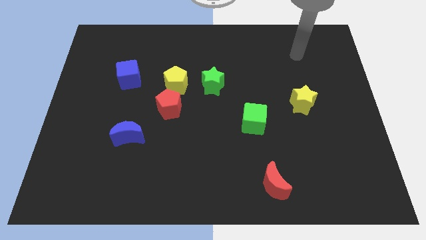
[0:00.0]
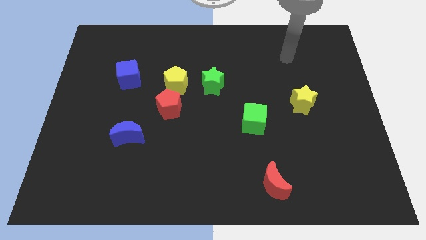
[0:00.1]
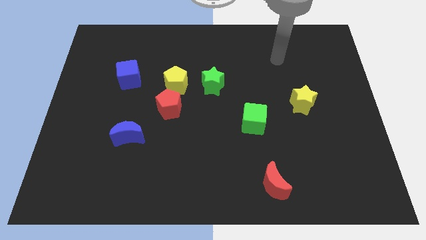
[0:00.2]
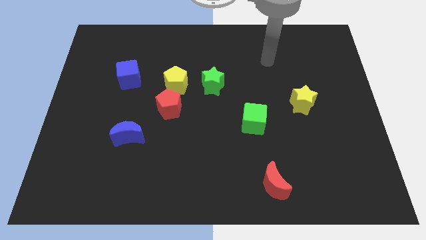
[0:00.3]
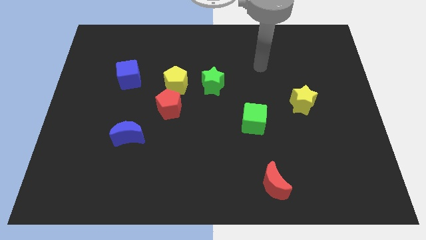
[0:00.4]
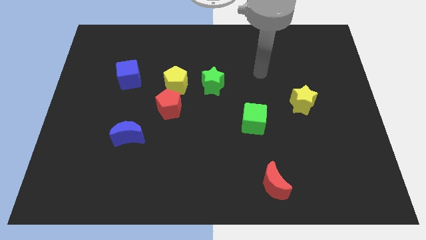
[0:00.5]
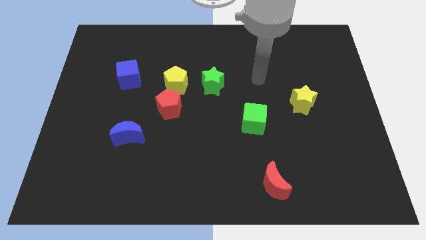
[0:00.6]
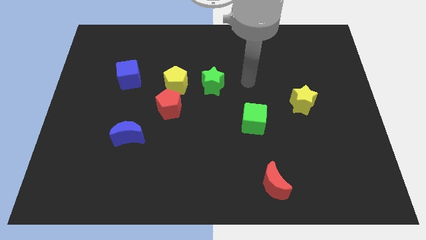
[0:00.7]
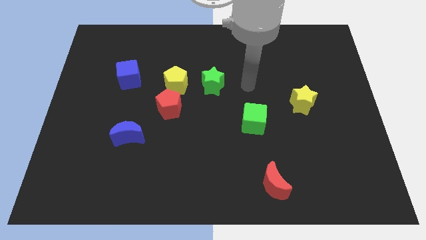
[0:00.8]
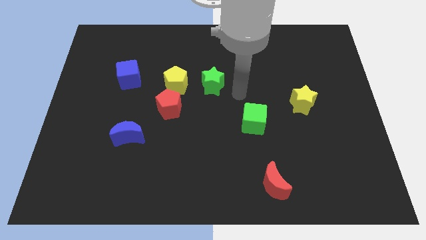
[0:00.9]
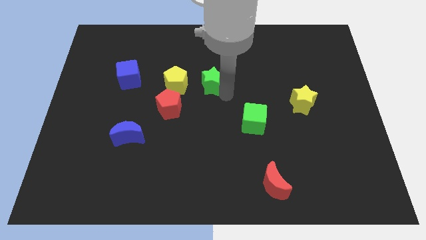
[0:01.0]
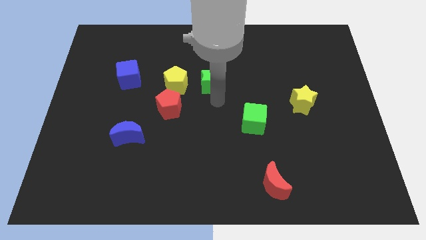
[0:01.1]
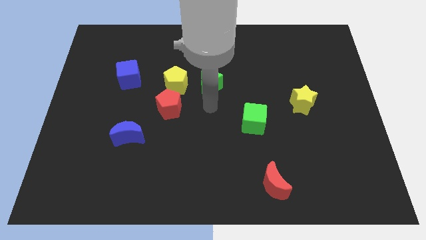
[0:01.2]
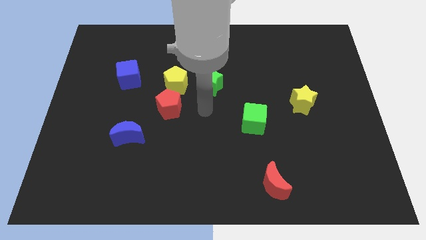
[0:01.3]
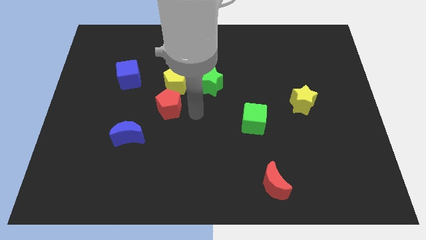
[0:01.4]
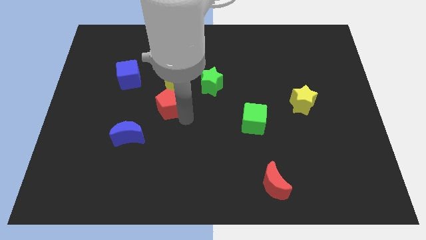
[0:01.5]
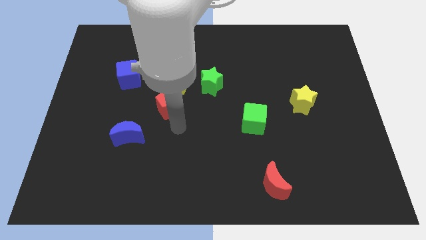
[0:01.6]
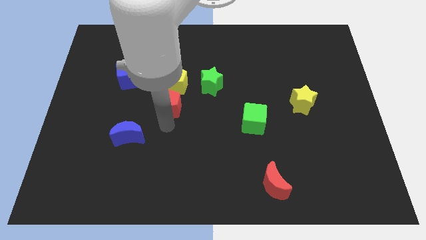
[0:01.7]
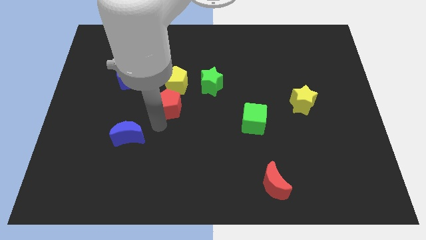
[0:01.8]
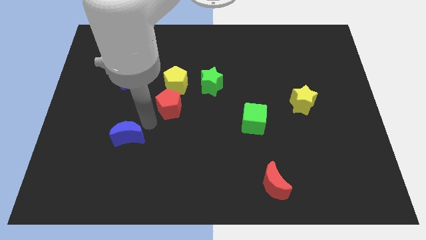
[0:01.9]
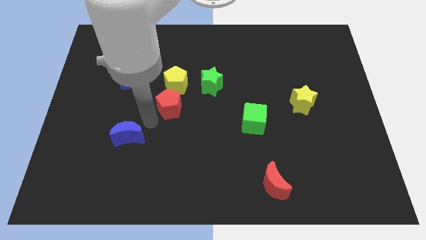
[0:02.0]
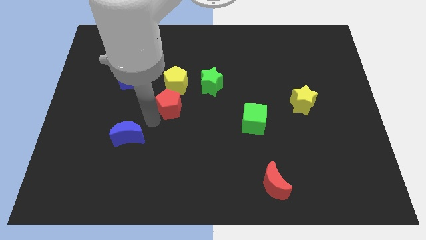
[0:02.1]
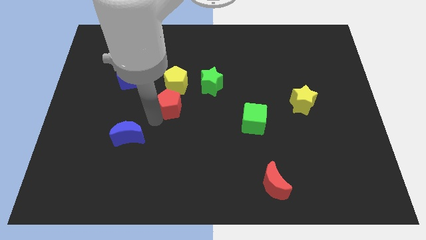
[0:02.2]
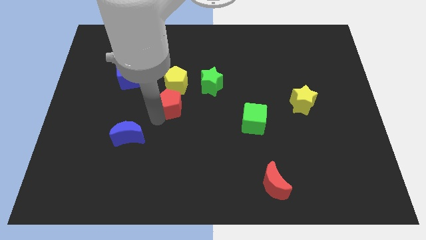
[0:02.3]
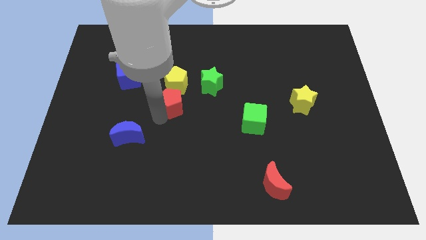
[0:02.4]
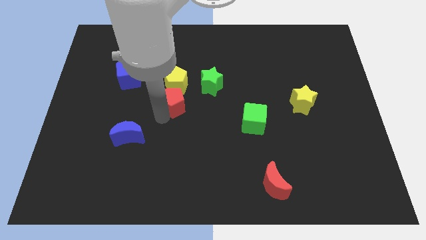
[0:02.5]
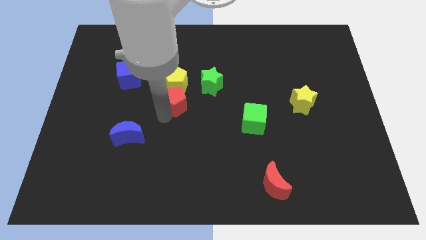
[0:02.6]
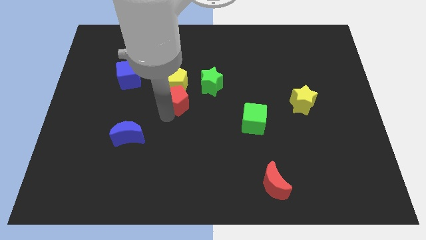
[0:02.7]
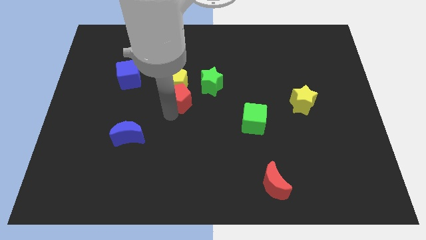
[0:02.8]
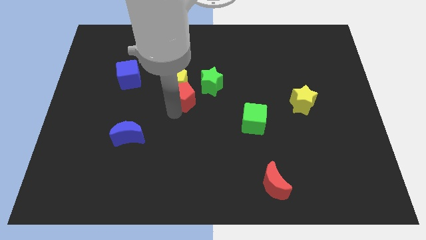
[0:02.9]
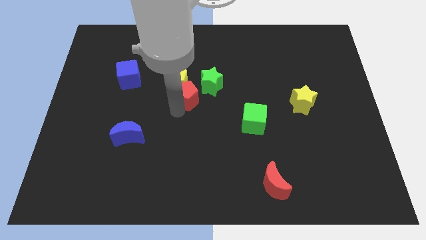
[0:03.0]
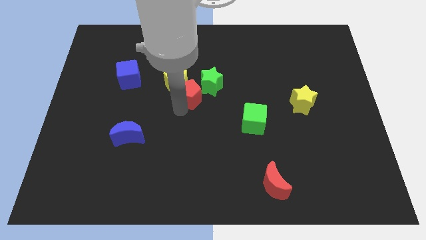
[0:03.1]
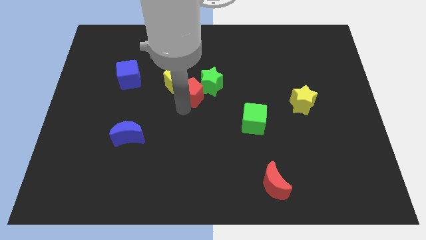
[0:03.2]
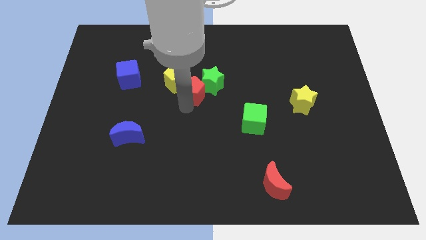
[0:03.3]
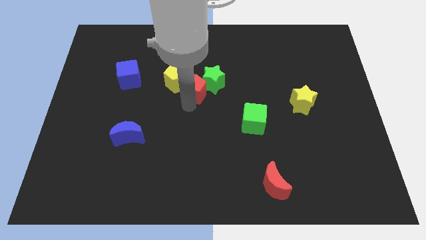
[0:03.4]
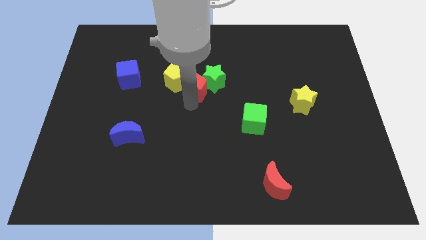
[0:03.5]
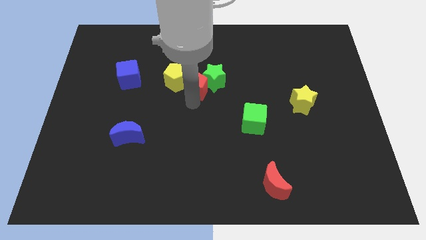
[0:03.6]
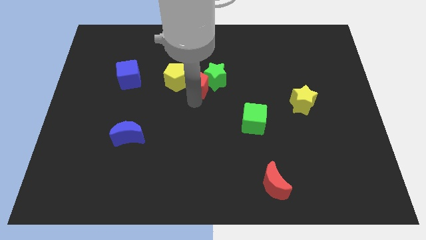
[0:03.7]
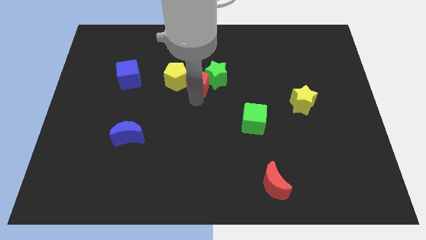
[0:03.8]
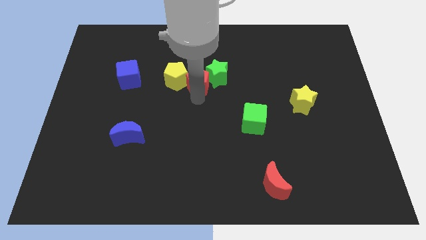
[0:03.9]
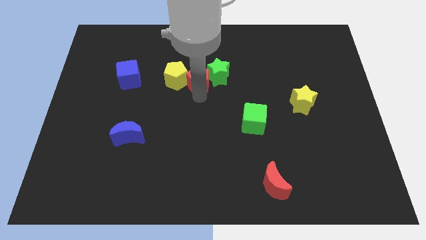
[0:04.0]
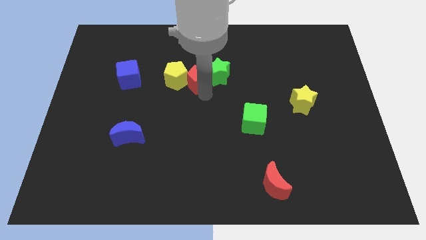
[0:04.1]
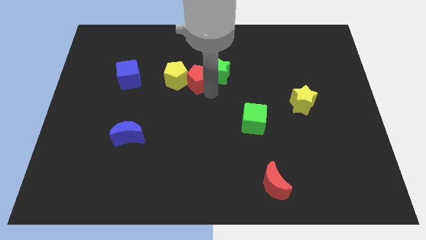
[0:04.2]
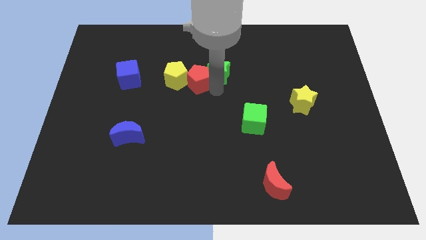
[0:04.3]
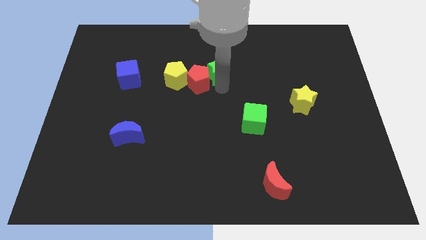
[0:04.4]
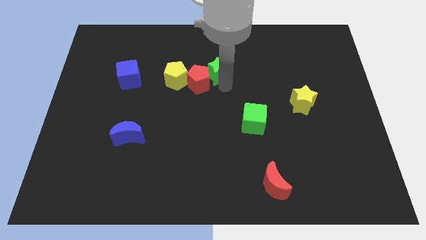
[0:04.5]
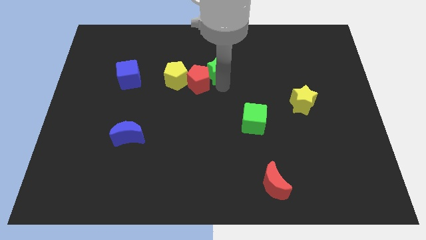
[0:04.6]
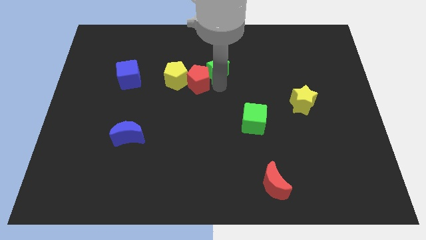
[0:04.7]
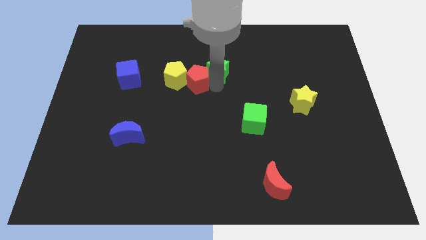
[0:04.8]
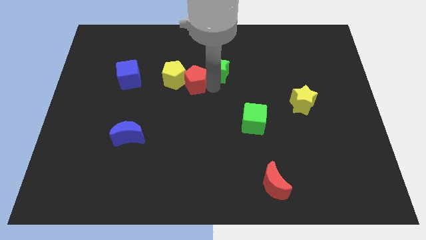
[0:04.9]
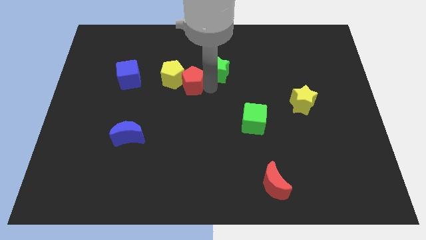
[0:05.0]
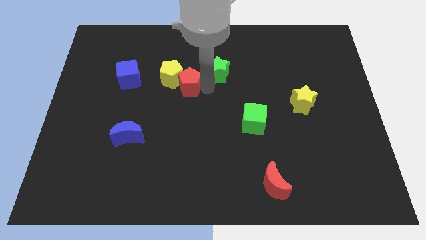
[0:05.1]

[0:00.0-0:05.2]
put the red pentagon just right of the blue cube

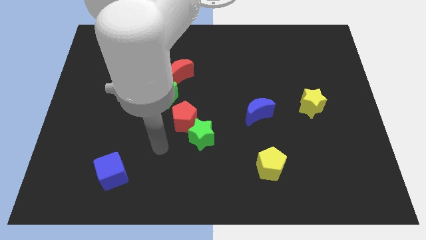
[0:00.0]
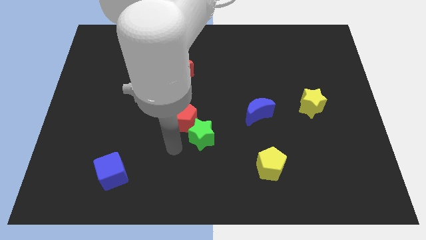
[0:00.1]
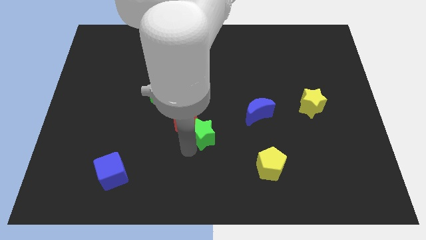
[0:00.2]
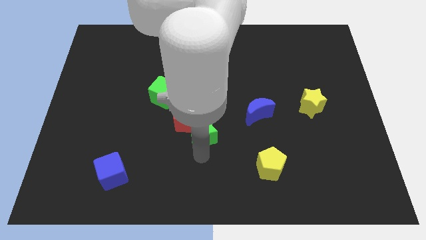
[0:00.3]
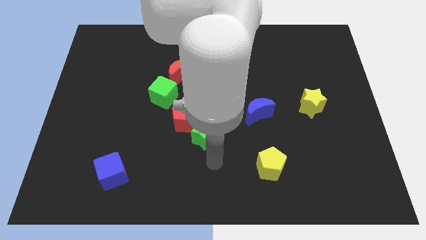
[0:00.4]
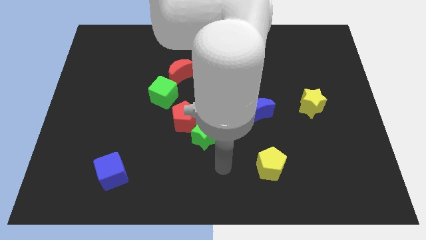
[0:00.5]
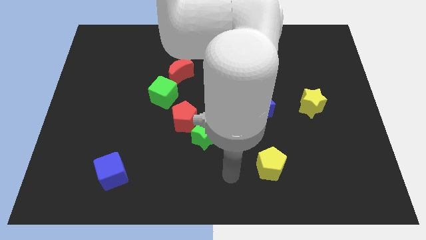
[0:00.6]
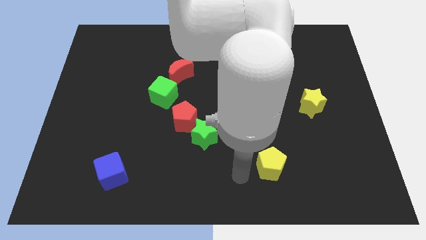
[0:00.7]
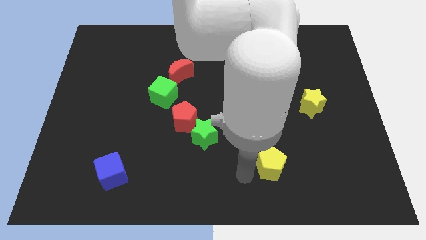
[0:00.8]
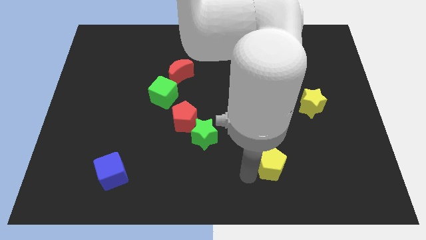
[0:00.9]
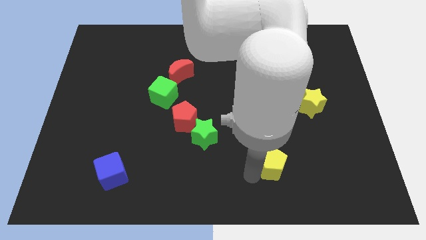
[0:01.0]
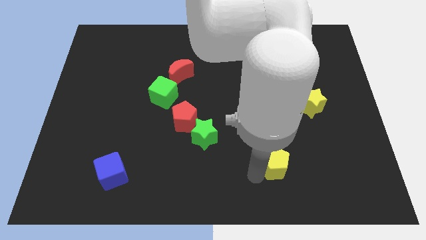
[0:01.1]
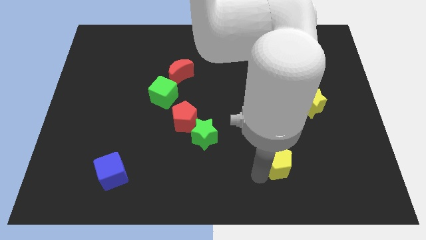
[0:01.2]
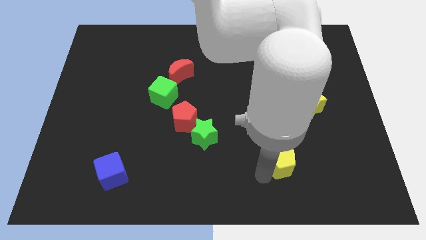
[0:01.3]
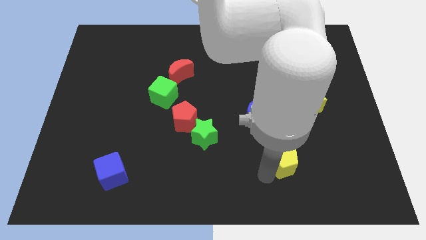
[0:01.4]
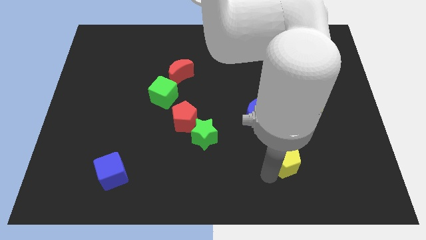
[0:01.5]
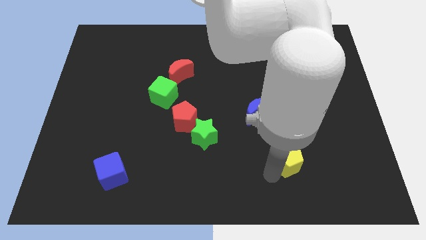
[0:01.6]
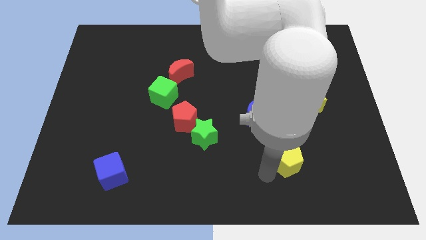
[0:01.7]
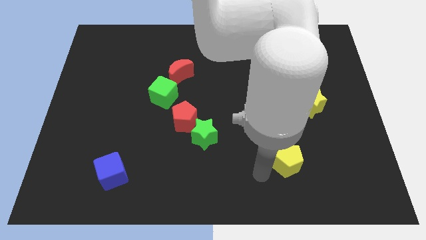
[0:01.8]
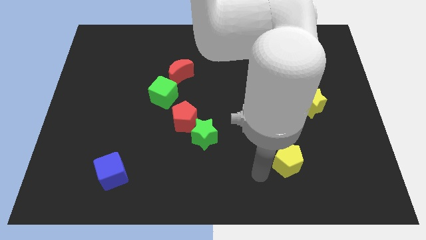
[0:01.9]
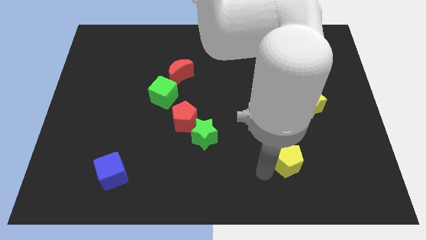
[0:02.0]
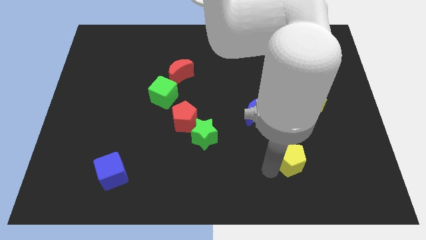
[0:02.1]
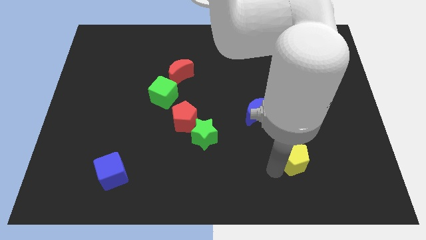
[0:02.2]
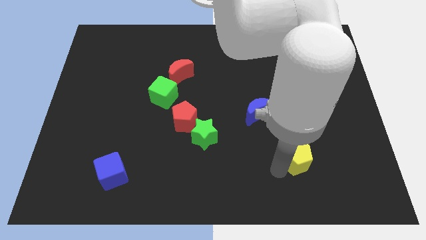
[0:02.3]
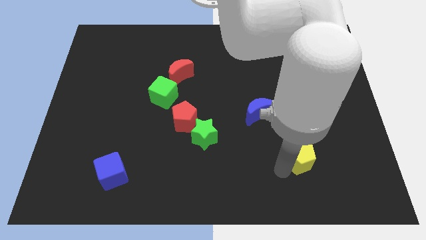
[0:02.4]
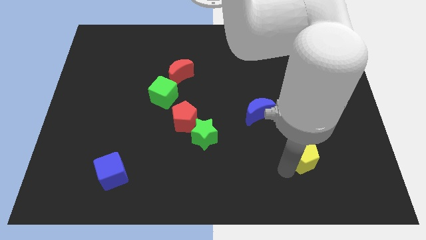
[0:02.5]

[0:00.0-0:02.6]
move the yellow pentagon to the bottom of the yellow star

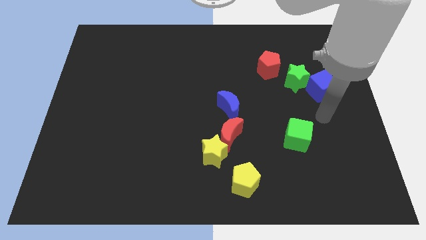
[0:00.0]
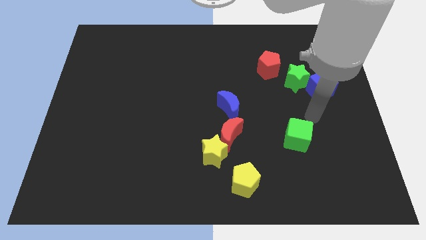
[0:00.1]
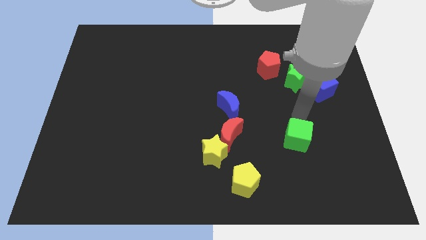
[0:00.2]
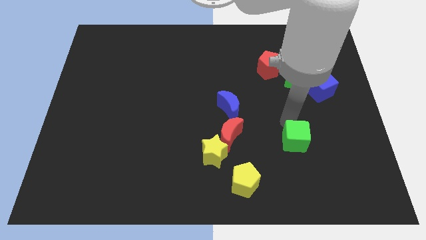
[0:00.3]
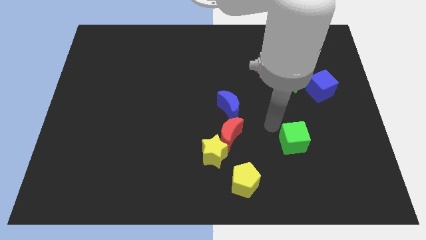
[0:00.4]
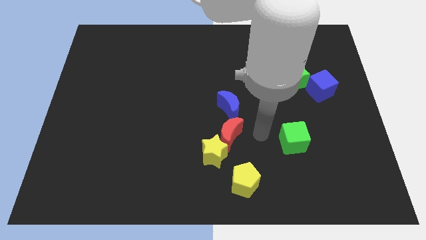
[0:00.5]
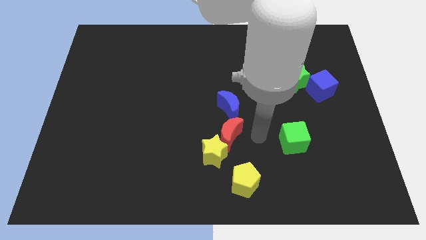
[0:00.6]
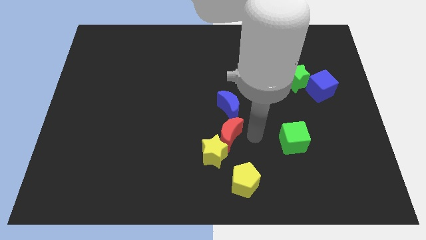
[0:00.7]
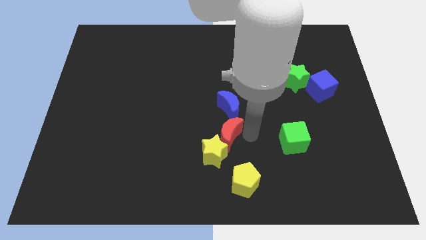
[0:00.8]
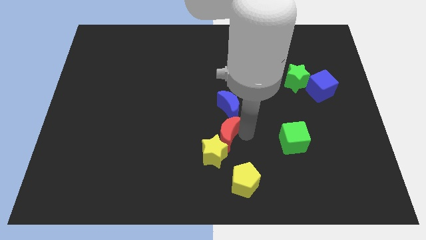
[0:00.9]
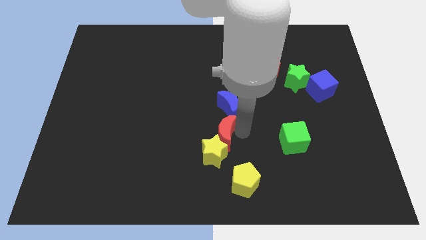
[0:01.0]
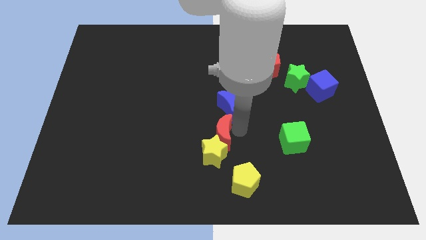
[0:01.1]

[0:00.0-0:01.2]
move the red moon to the top left of the yellow star
